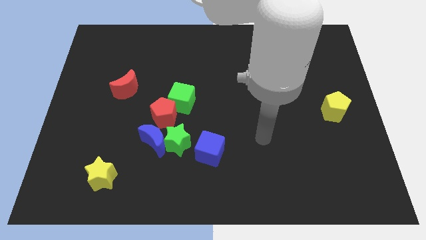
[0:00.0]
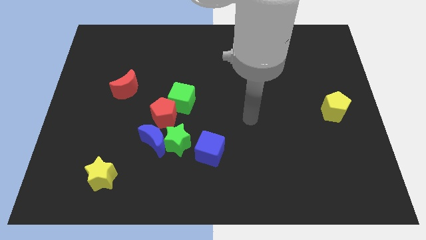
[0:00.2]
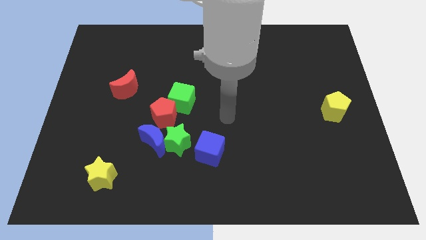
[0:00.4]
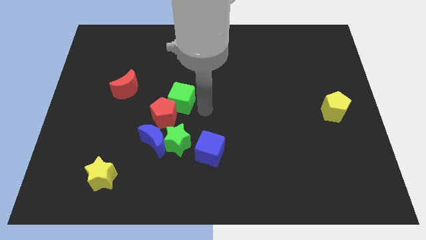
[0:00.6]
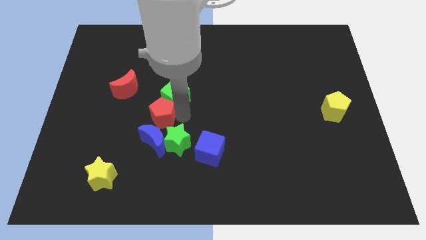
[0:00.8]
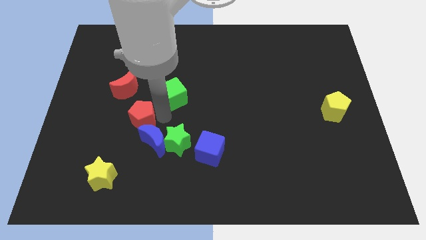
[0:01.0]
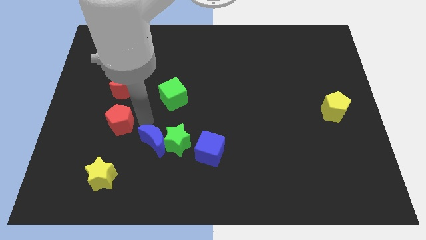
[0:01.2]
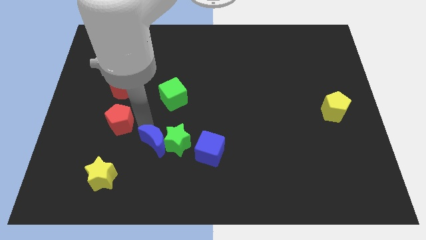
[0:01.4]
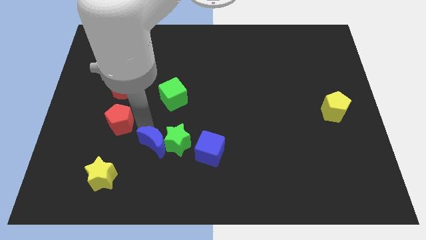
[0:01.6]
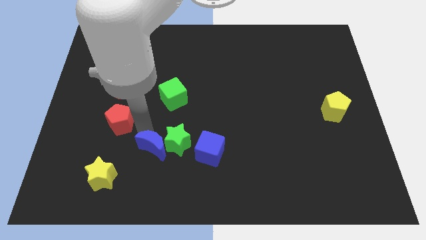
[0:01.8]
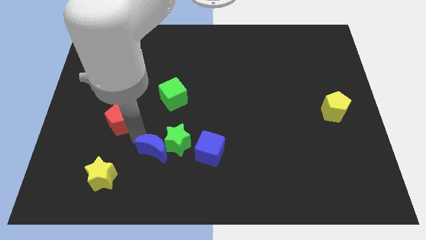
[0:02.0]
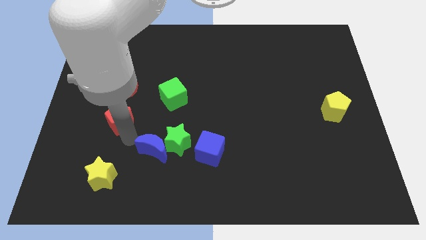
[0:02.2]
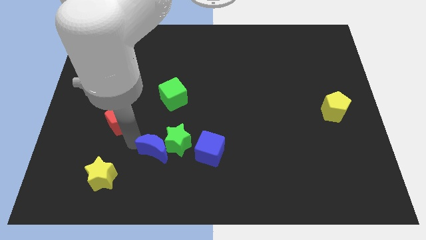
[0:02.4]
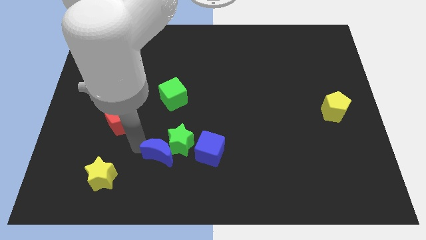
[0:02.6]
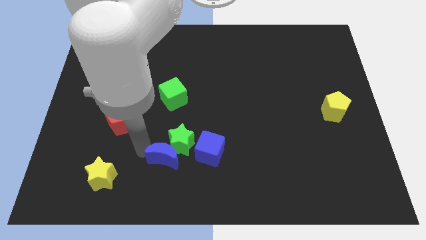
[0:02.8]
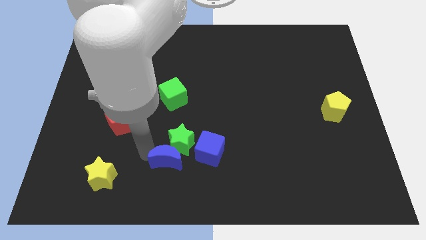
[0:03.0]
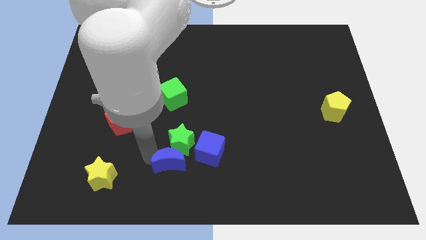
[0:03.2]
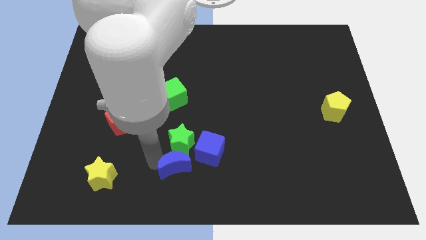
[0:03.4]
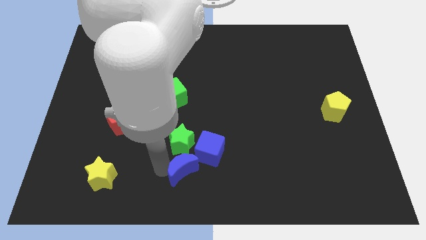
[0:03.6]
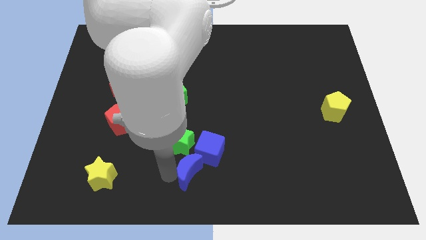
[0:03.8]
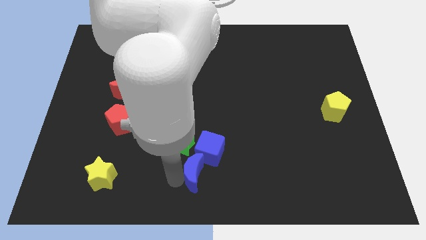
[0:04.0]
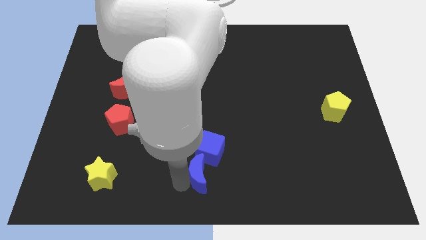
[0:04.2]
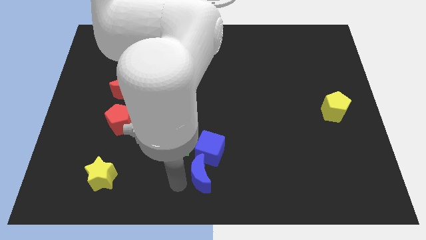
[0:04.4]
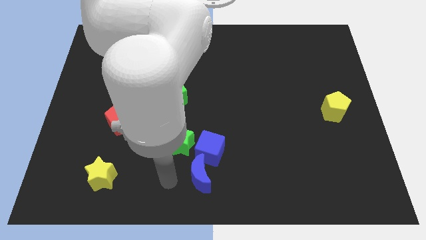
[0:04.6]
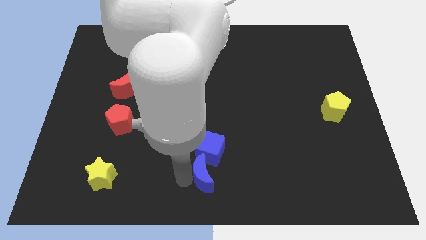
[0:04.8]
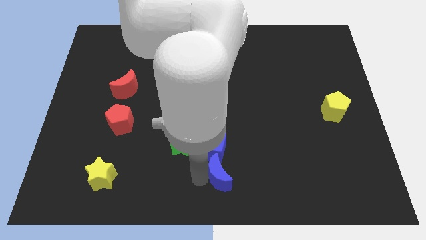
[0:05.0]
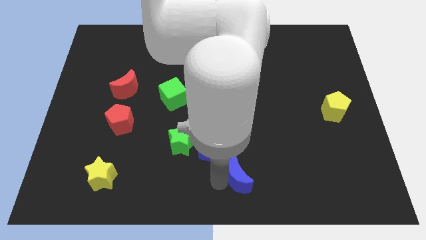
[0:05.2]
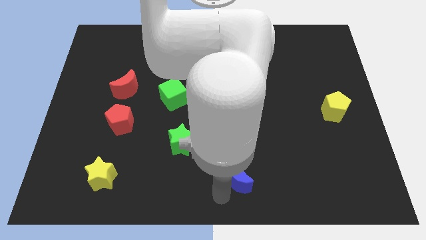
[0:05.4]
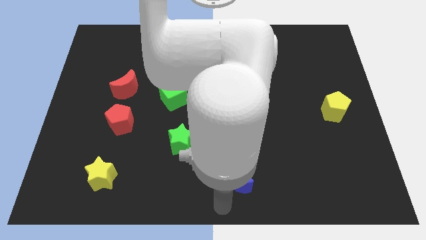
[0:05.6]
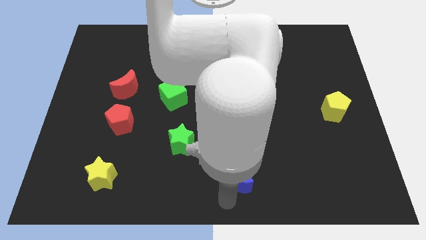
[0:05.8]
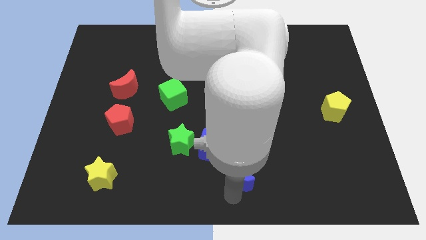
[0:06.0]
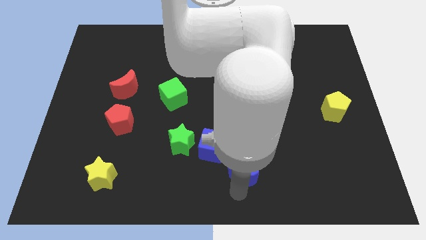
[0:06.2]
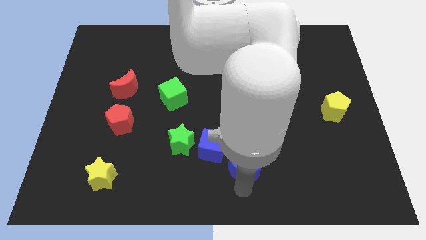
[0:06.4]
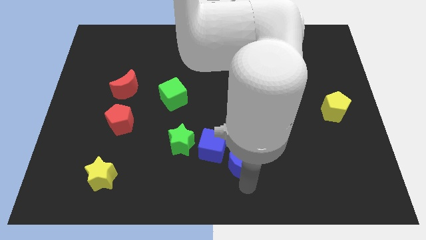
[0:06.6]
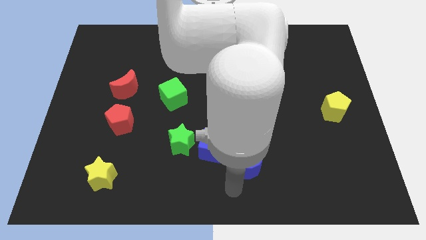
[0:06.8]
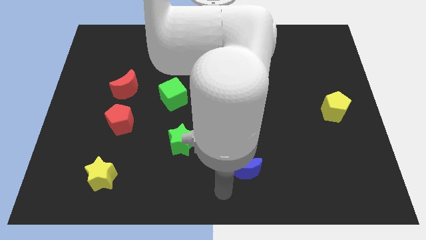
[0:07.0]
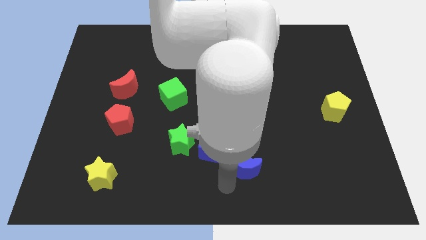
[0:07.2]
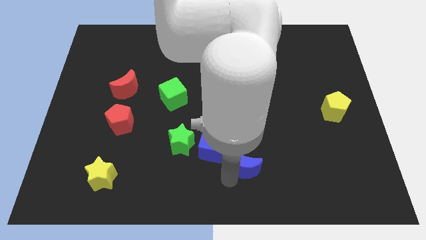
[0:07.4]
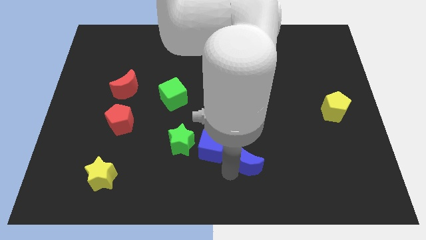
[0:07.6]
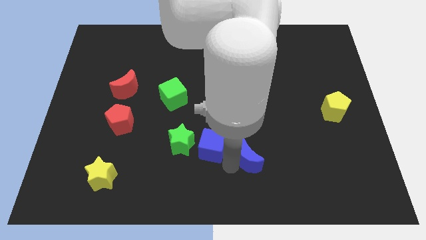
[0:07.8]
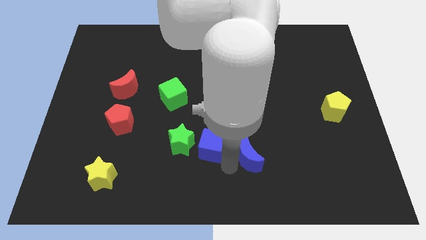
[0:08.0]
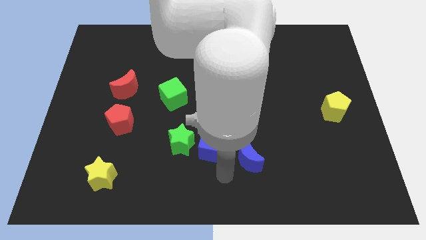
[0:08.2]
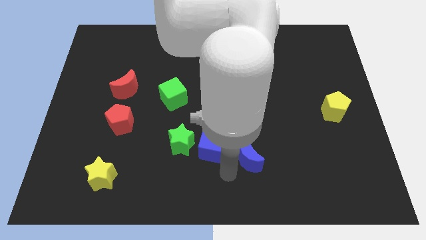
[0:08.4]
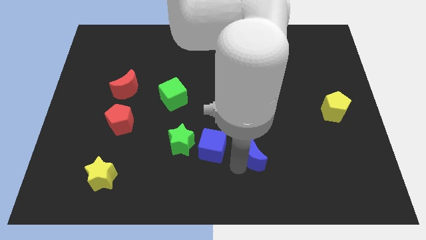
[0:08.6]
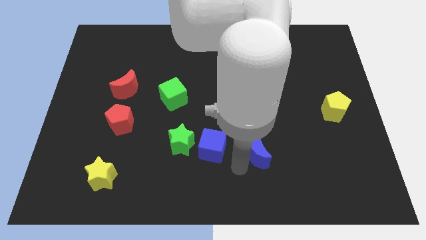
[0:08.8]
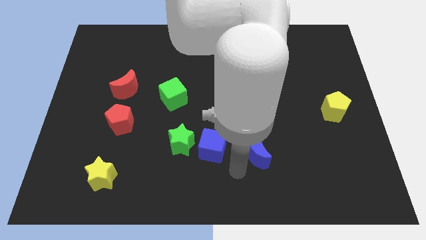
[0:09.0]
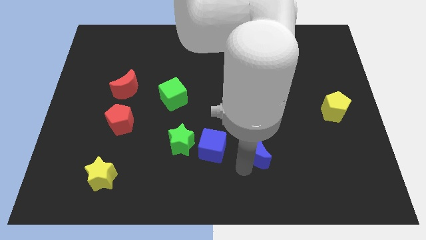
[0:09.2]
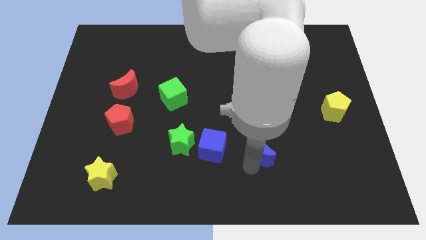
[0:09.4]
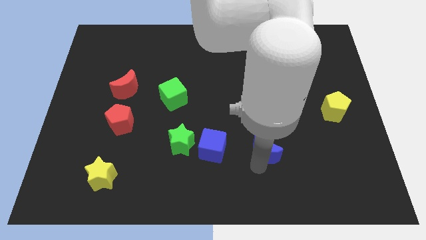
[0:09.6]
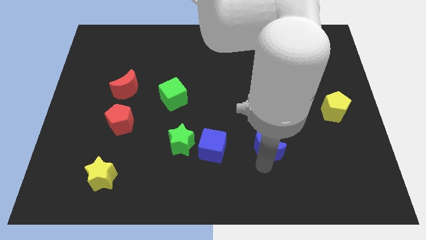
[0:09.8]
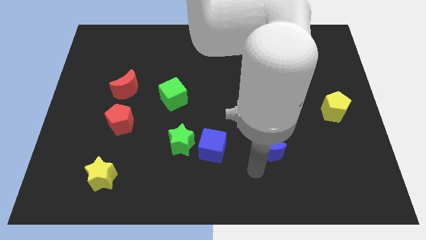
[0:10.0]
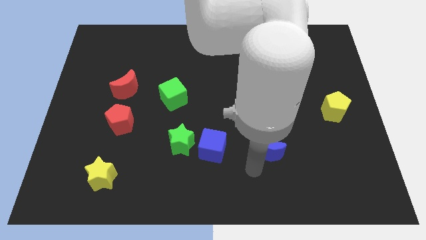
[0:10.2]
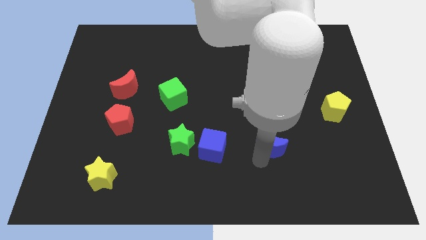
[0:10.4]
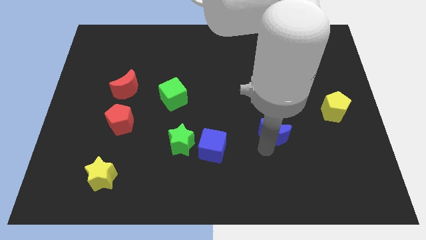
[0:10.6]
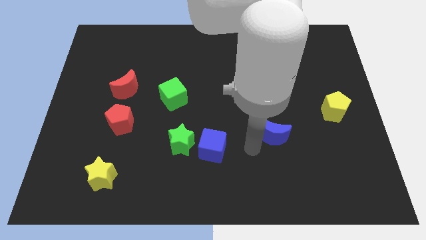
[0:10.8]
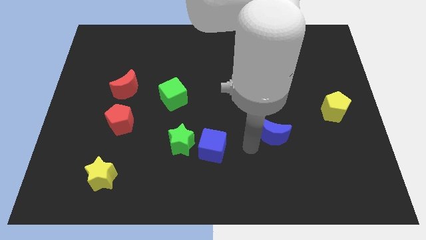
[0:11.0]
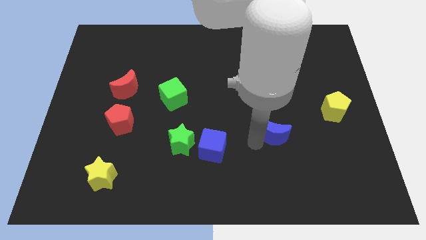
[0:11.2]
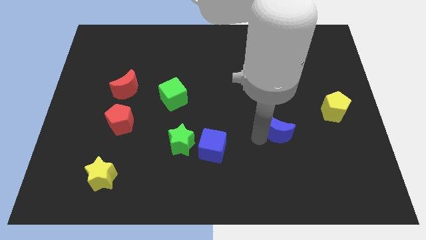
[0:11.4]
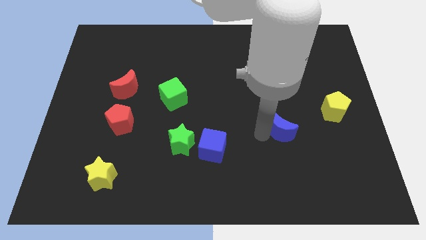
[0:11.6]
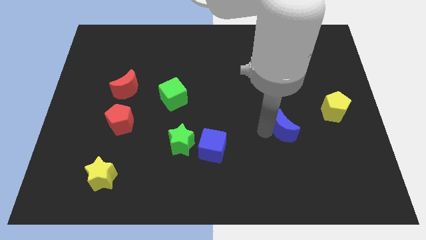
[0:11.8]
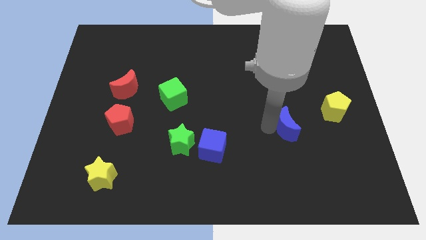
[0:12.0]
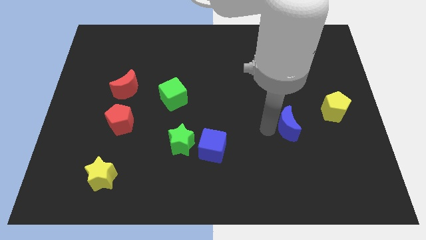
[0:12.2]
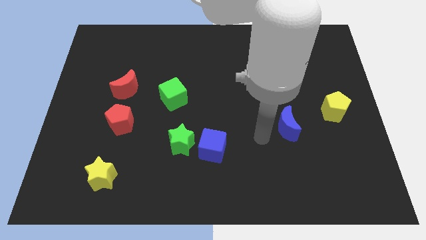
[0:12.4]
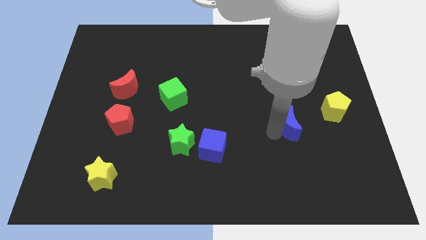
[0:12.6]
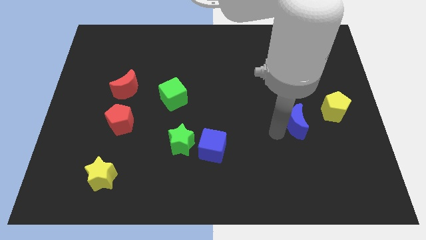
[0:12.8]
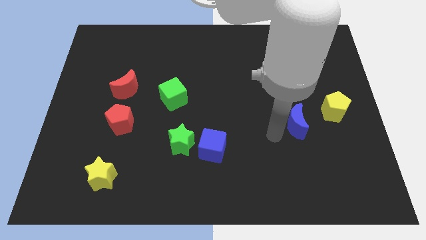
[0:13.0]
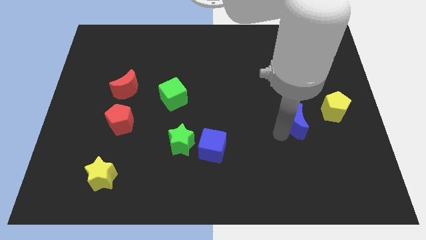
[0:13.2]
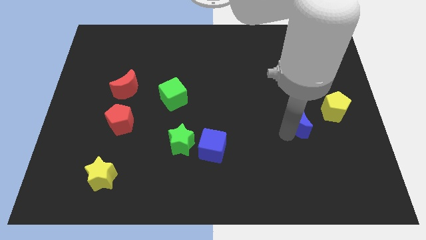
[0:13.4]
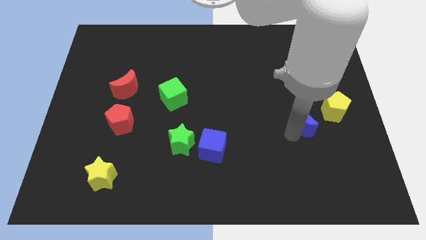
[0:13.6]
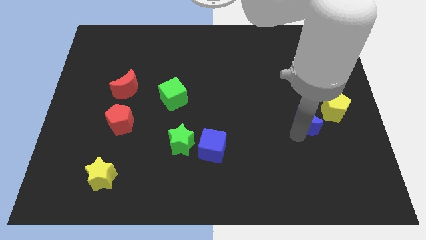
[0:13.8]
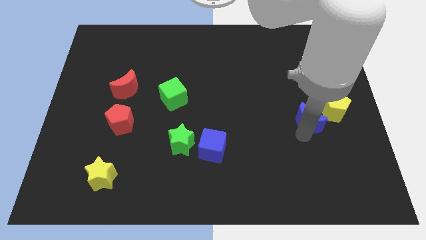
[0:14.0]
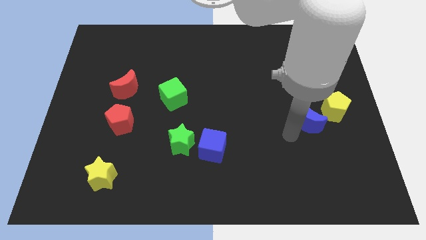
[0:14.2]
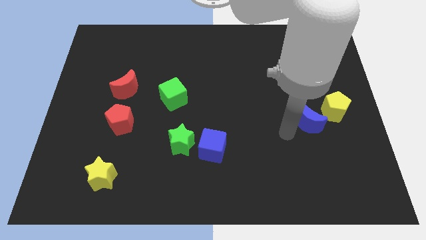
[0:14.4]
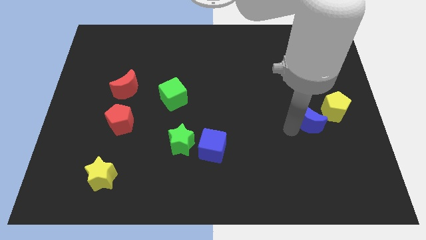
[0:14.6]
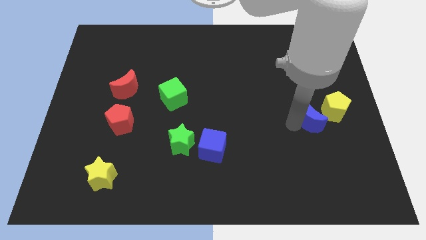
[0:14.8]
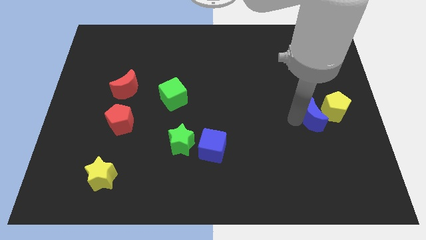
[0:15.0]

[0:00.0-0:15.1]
push the blue moon towards the yellow pentagon

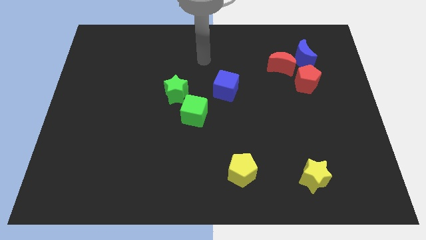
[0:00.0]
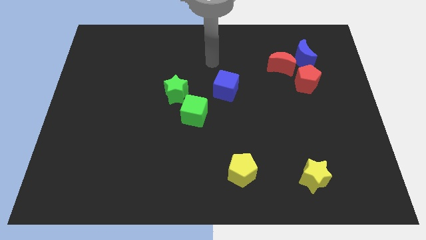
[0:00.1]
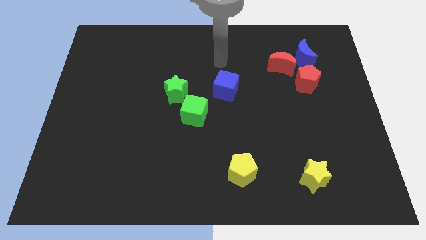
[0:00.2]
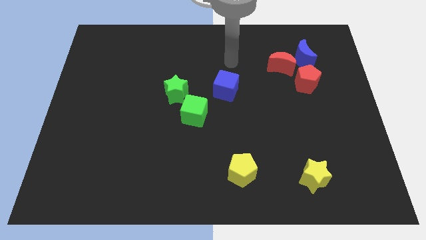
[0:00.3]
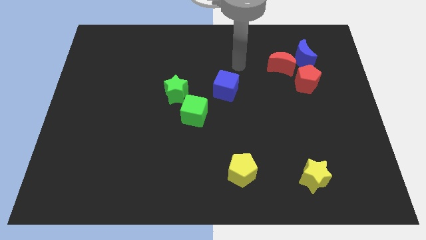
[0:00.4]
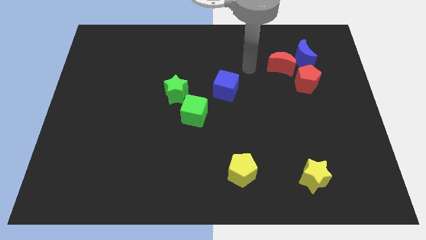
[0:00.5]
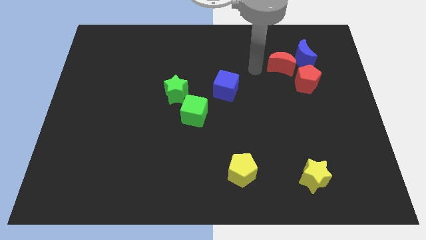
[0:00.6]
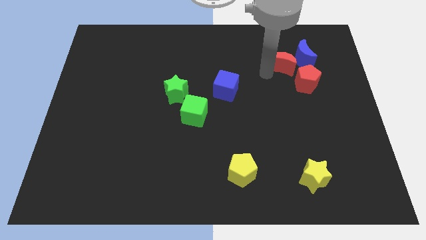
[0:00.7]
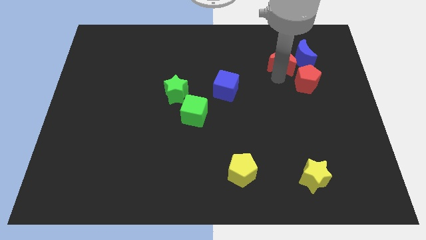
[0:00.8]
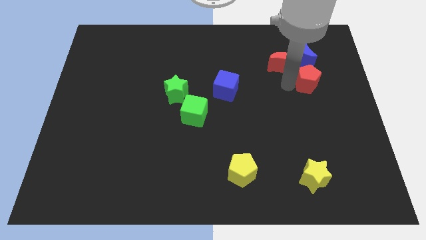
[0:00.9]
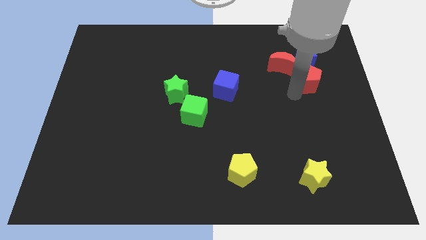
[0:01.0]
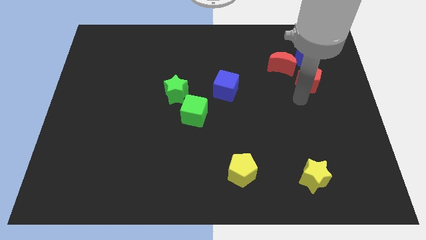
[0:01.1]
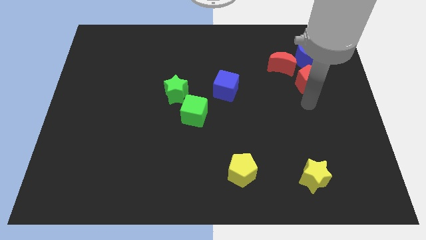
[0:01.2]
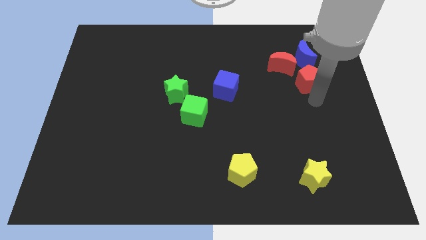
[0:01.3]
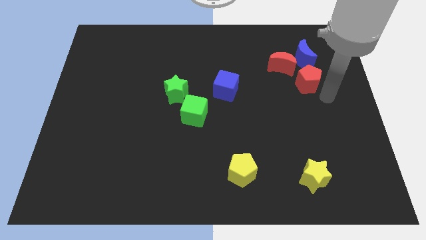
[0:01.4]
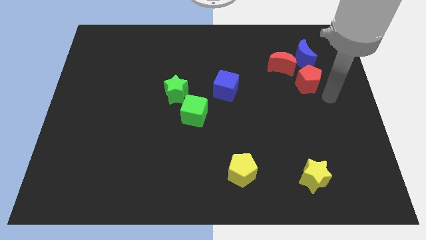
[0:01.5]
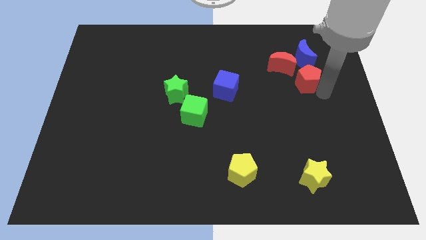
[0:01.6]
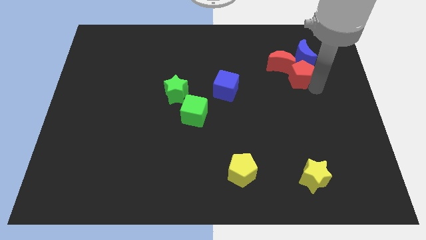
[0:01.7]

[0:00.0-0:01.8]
push the red pentagon close to the red moon
